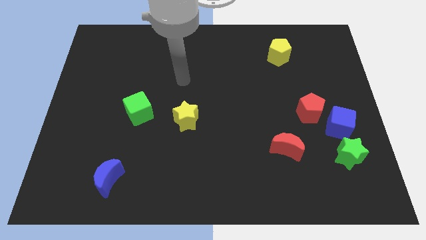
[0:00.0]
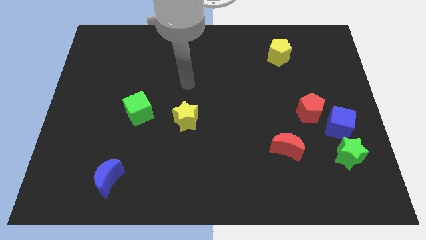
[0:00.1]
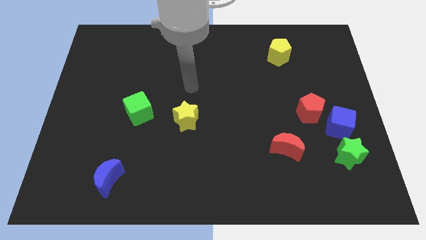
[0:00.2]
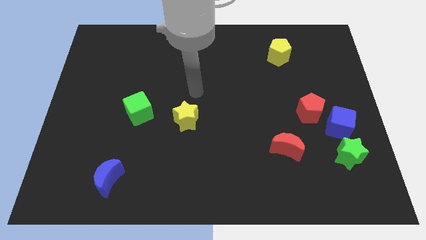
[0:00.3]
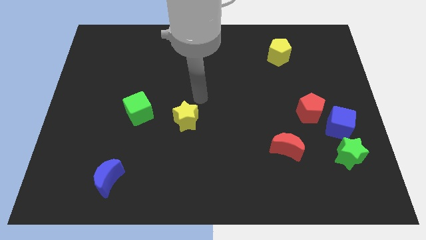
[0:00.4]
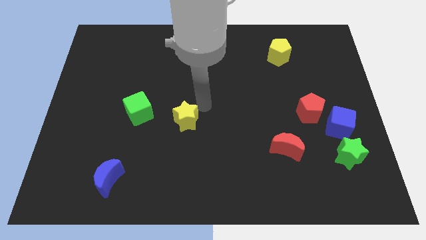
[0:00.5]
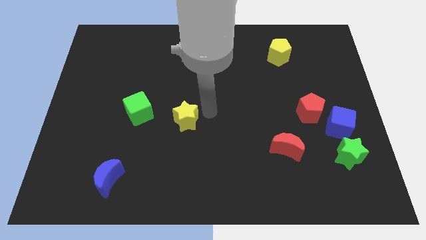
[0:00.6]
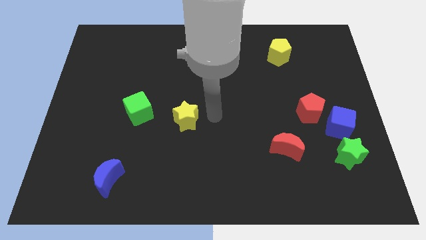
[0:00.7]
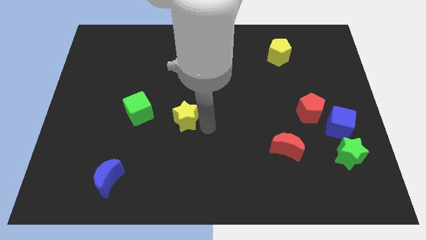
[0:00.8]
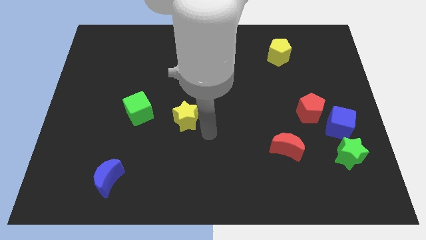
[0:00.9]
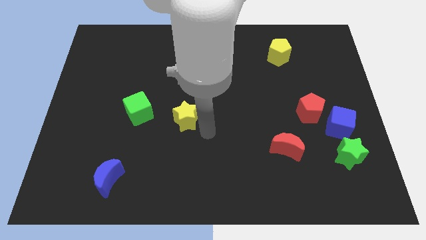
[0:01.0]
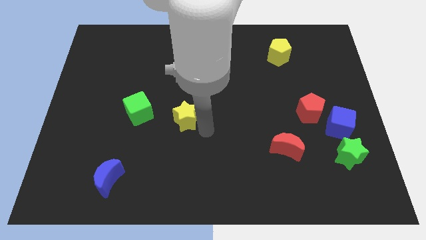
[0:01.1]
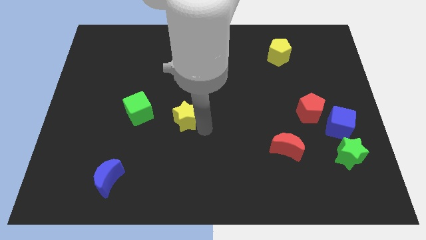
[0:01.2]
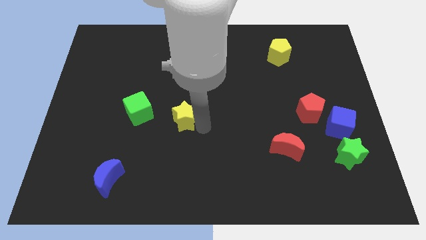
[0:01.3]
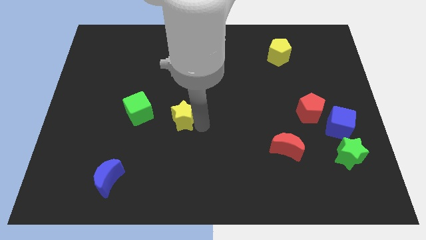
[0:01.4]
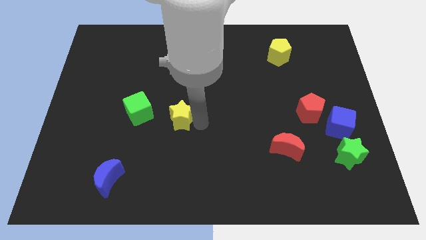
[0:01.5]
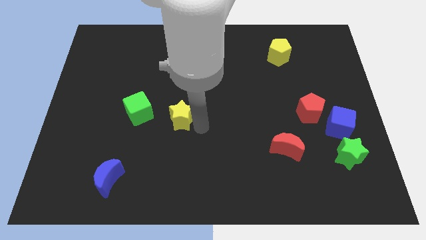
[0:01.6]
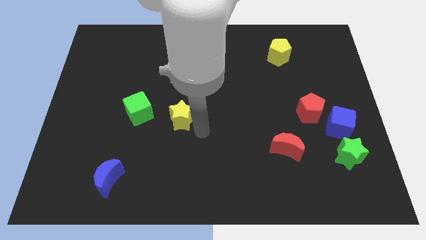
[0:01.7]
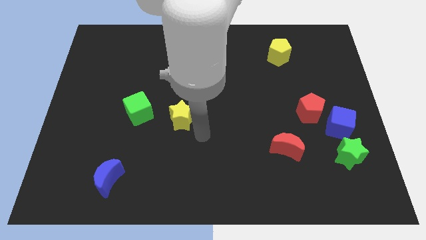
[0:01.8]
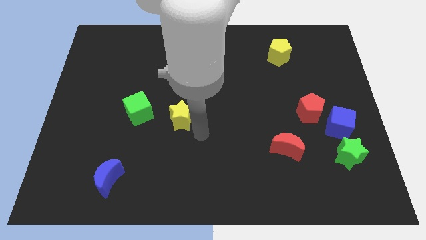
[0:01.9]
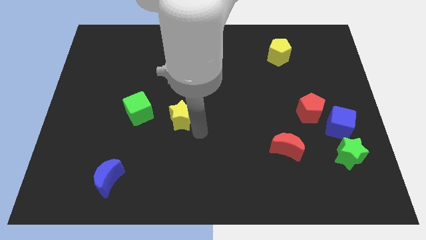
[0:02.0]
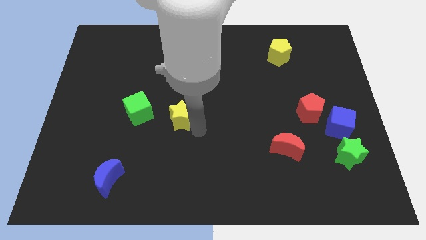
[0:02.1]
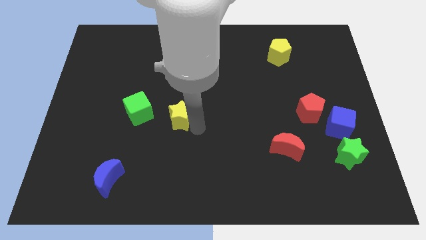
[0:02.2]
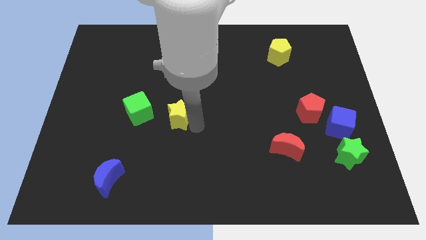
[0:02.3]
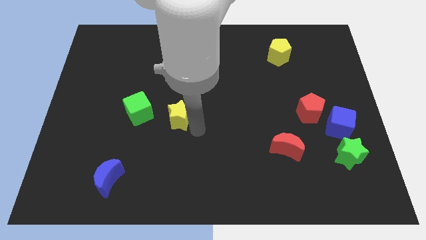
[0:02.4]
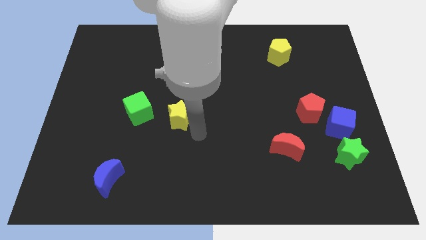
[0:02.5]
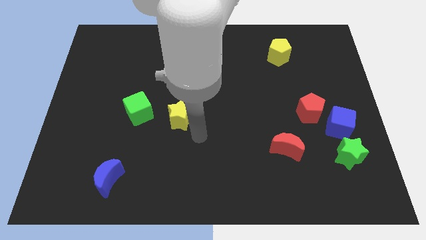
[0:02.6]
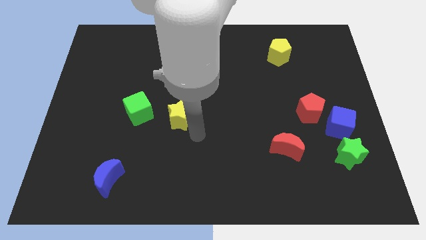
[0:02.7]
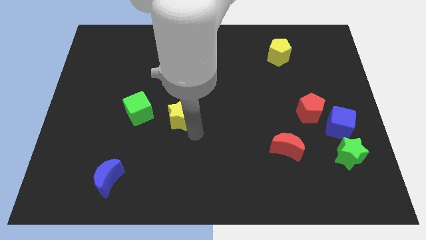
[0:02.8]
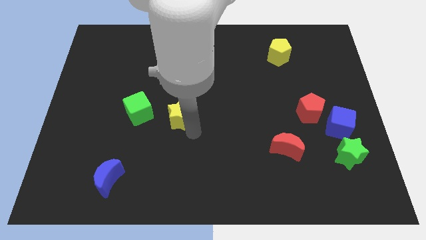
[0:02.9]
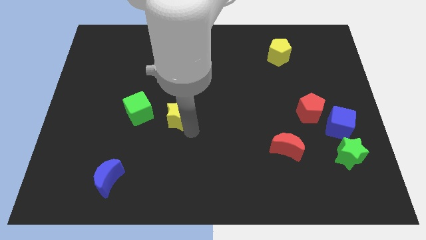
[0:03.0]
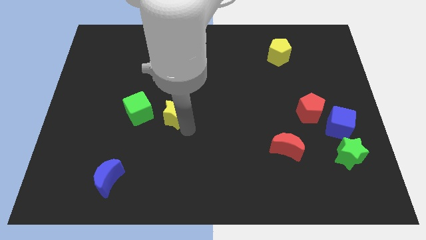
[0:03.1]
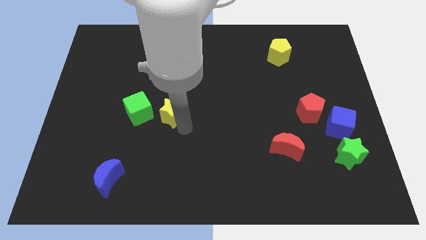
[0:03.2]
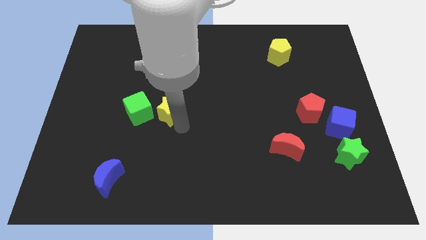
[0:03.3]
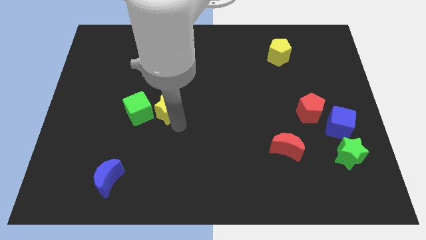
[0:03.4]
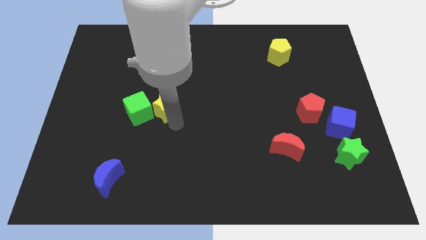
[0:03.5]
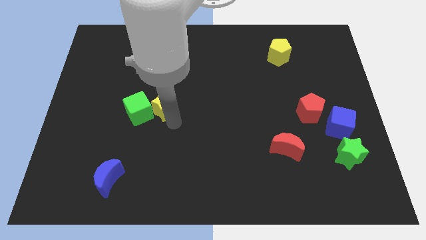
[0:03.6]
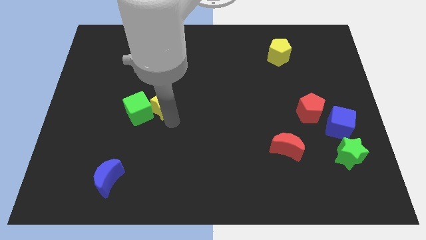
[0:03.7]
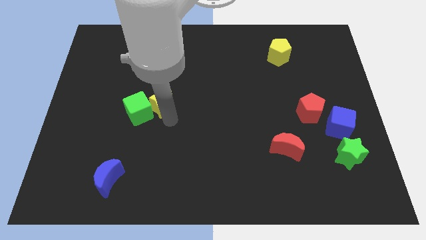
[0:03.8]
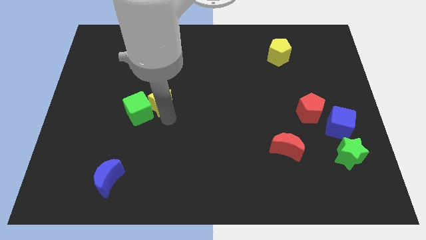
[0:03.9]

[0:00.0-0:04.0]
slightly slide the yellow star up and to the left diagonally

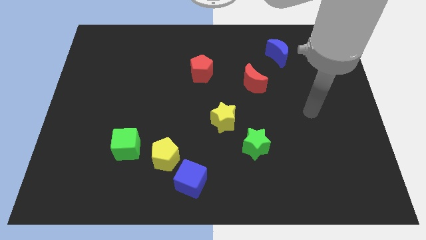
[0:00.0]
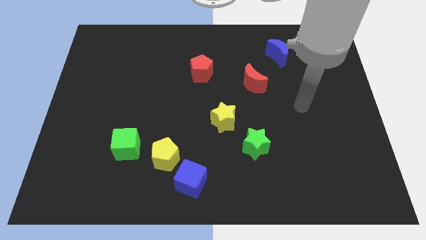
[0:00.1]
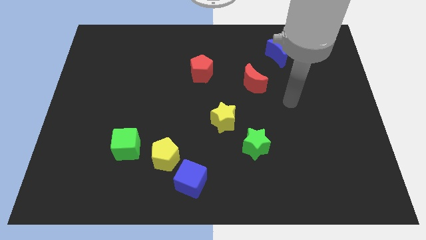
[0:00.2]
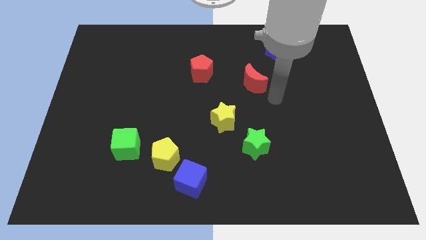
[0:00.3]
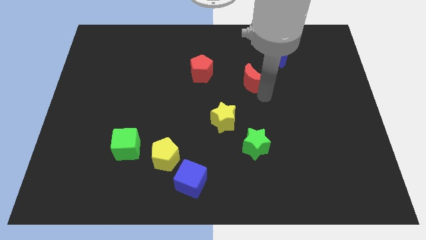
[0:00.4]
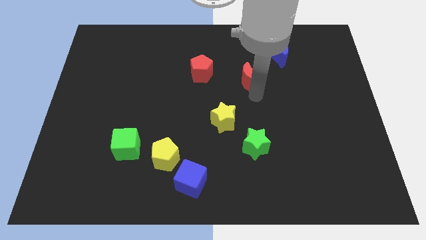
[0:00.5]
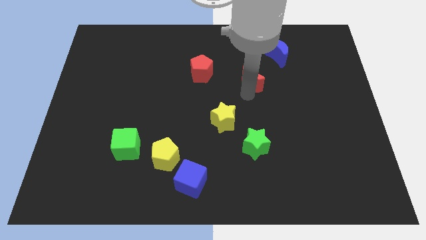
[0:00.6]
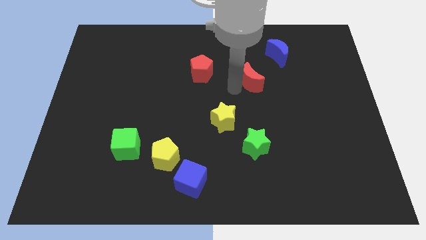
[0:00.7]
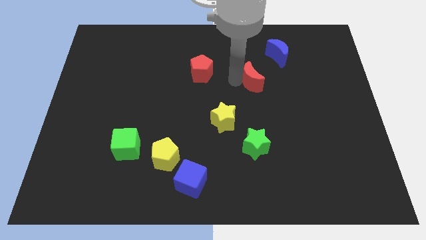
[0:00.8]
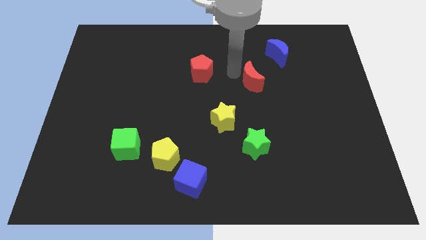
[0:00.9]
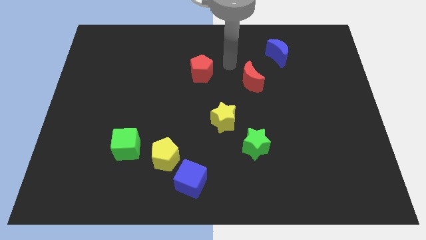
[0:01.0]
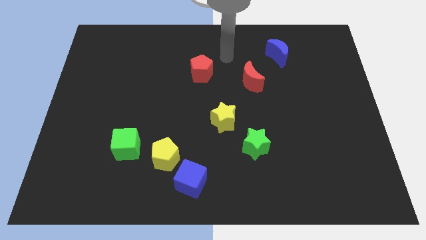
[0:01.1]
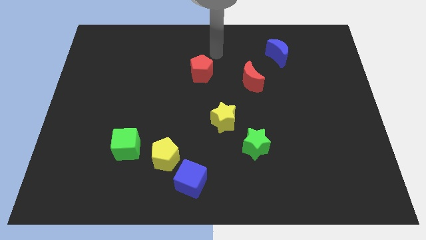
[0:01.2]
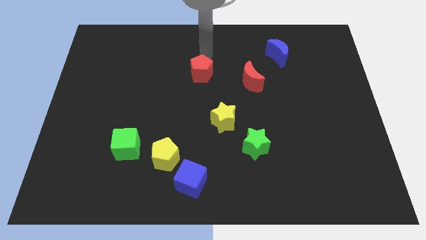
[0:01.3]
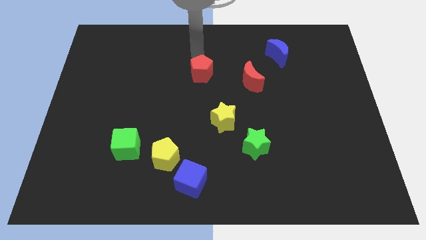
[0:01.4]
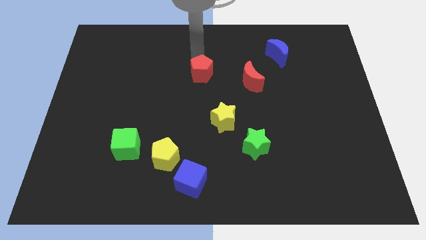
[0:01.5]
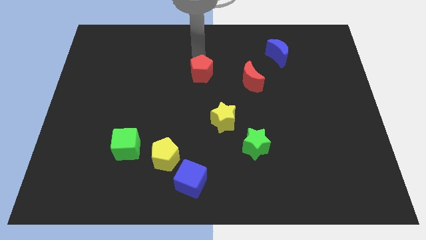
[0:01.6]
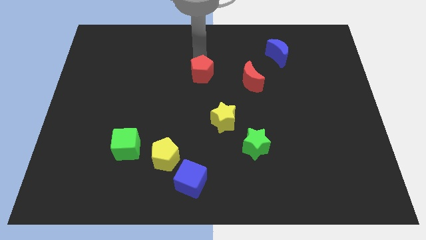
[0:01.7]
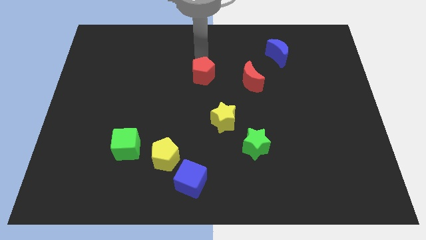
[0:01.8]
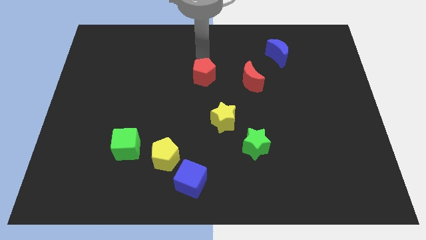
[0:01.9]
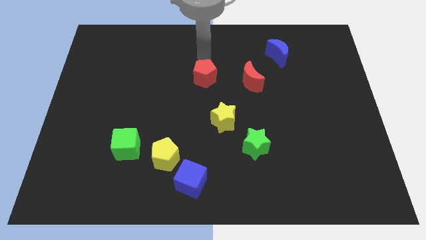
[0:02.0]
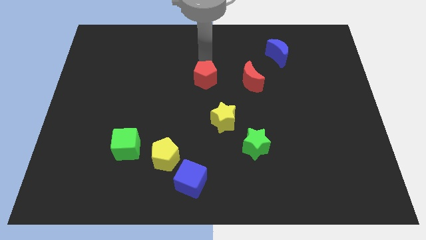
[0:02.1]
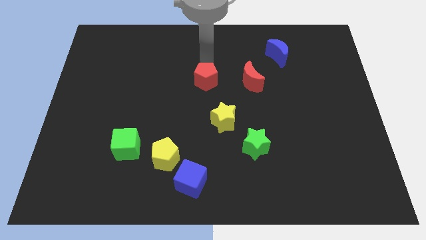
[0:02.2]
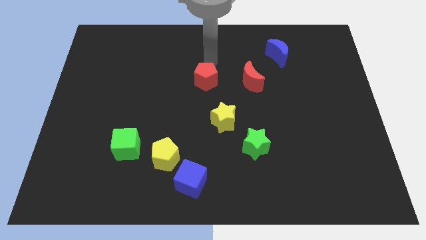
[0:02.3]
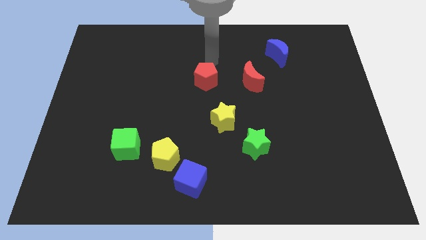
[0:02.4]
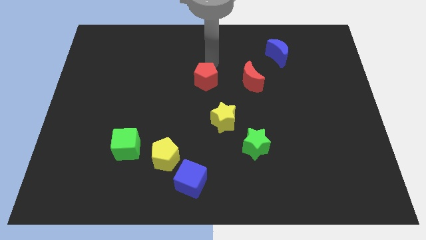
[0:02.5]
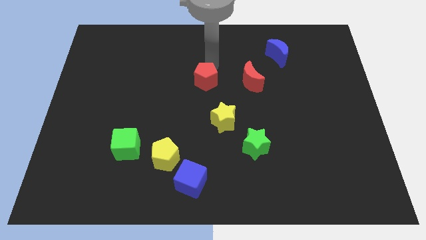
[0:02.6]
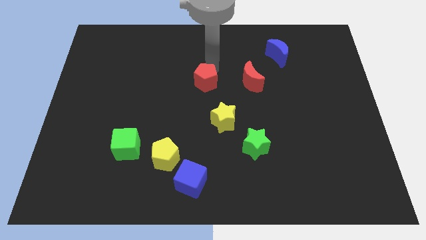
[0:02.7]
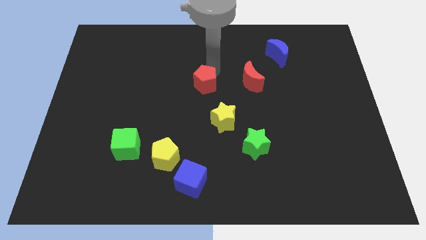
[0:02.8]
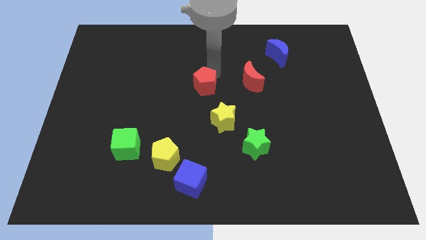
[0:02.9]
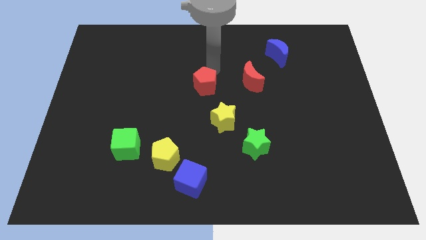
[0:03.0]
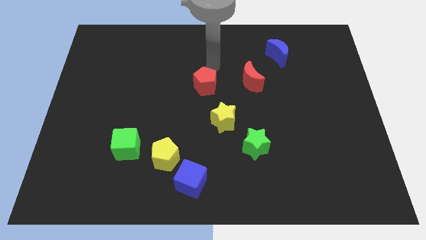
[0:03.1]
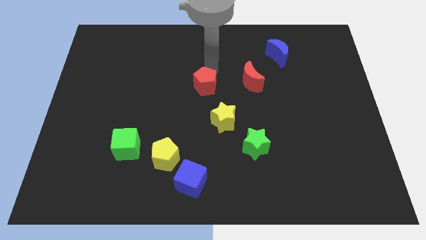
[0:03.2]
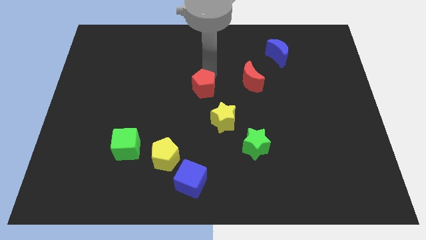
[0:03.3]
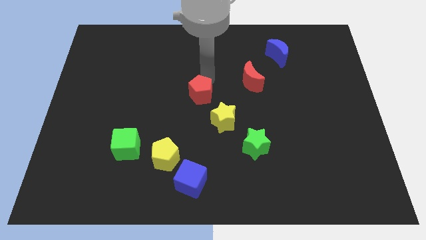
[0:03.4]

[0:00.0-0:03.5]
slightly slide the red pentagon downwards

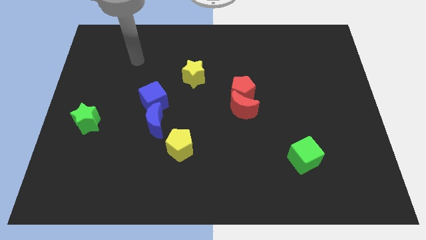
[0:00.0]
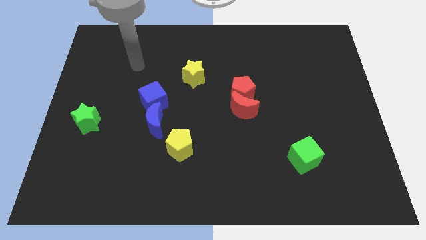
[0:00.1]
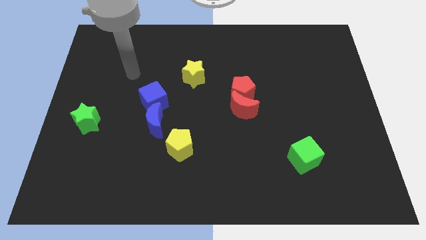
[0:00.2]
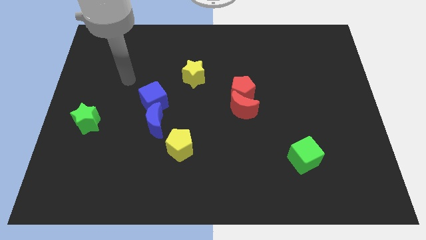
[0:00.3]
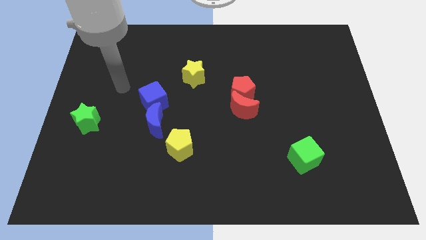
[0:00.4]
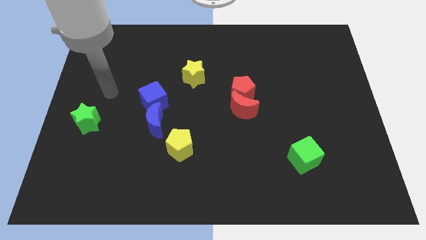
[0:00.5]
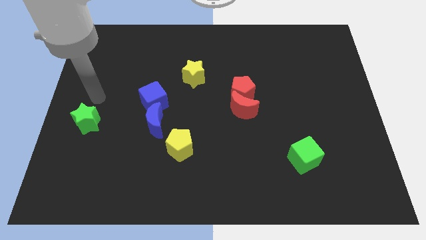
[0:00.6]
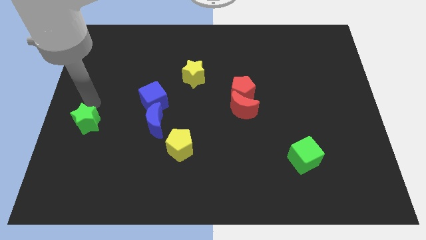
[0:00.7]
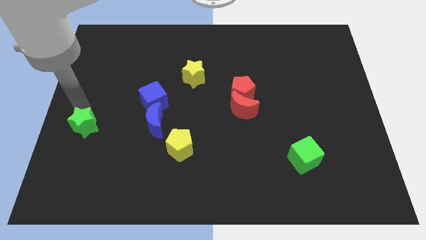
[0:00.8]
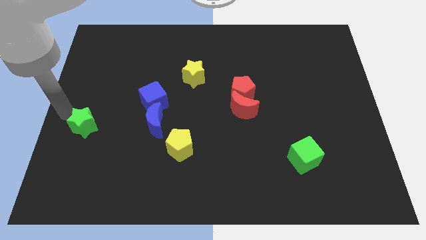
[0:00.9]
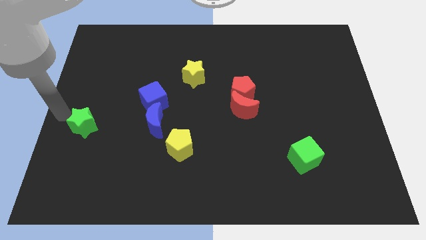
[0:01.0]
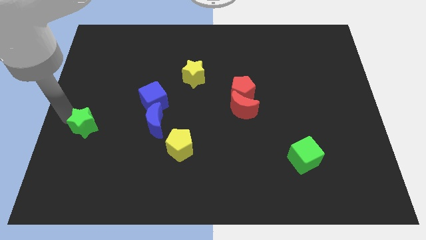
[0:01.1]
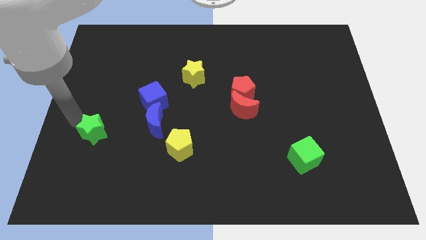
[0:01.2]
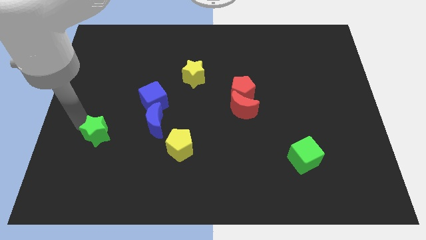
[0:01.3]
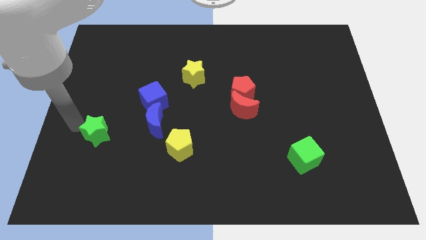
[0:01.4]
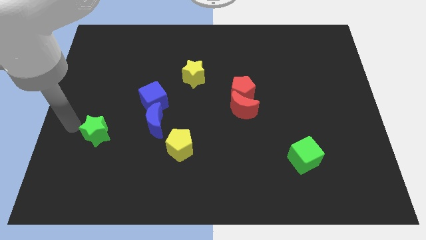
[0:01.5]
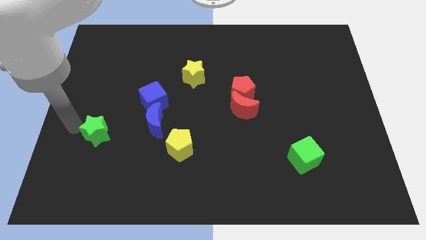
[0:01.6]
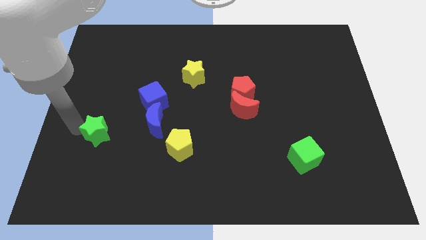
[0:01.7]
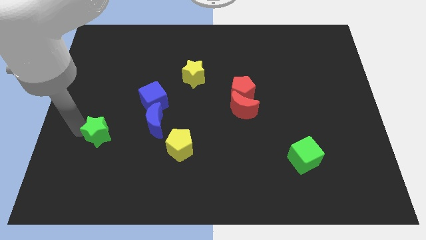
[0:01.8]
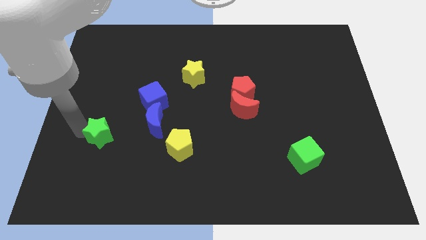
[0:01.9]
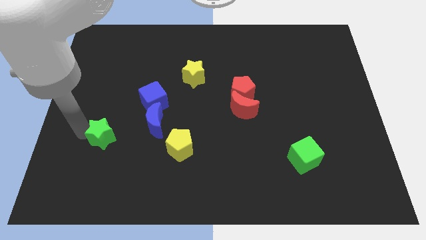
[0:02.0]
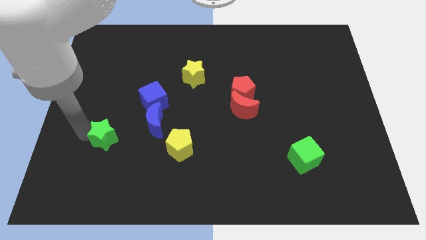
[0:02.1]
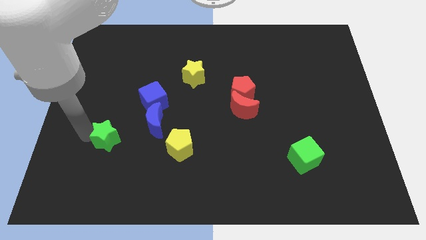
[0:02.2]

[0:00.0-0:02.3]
push the green star diagonally down and right a little bit
